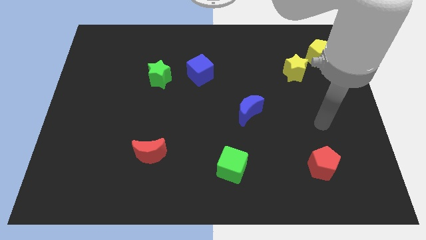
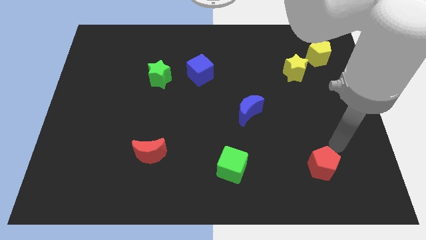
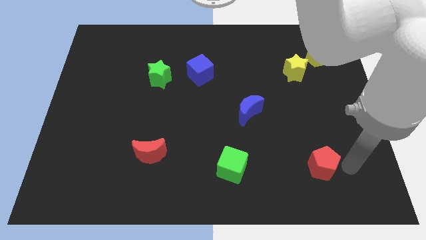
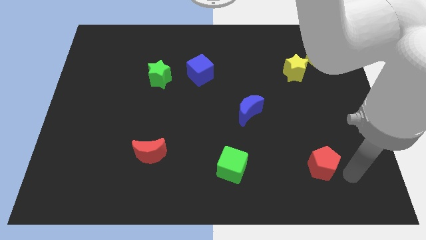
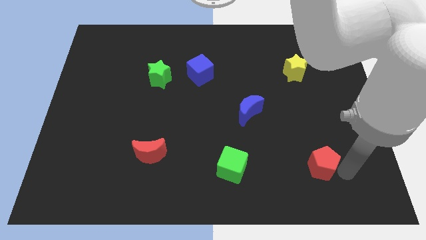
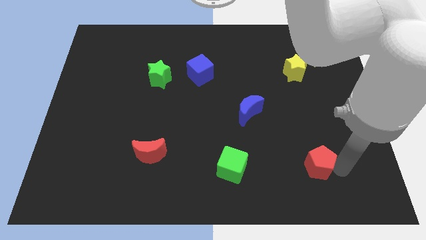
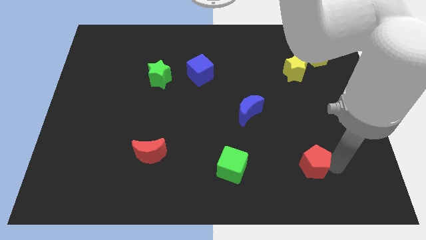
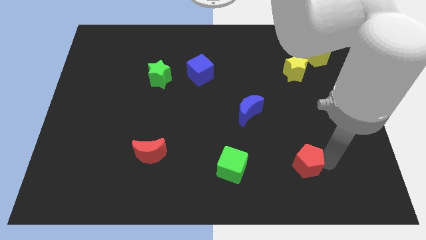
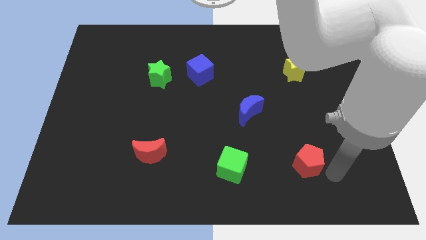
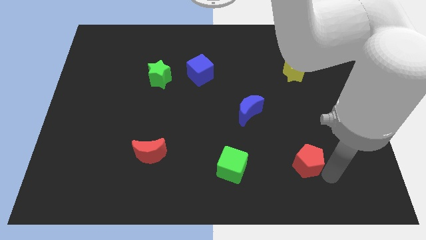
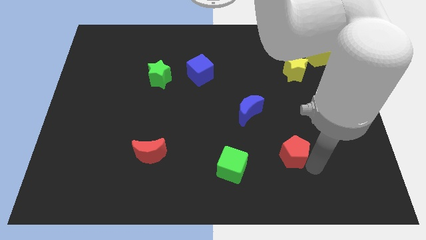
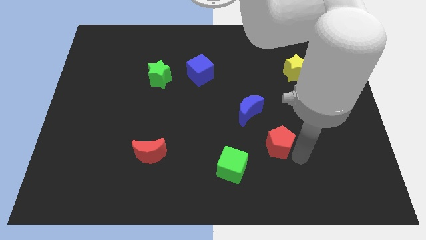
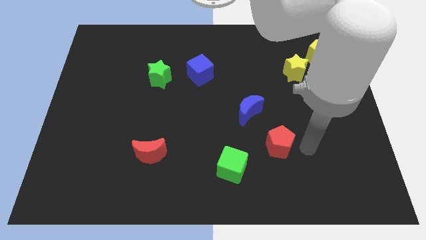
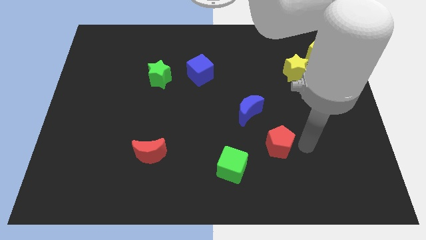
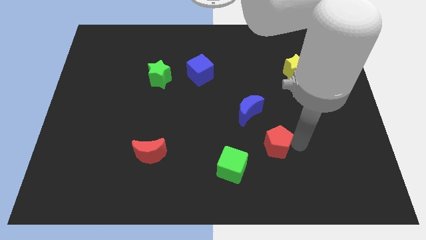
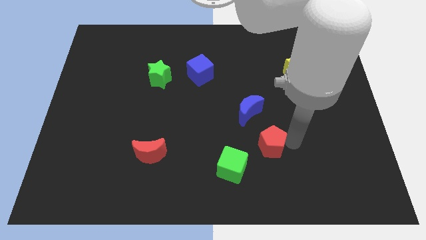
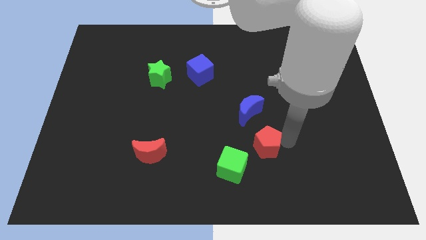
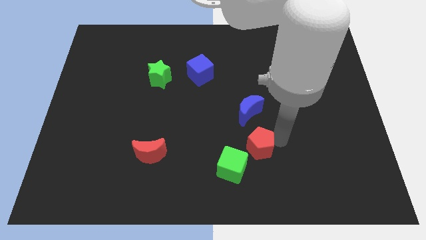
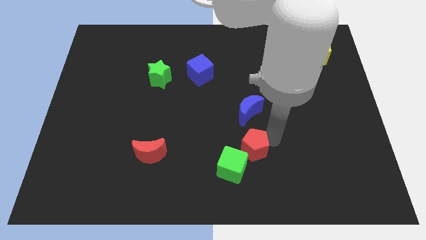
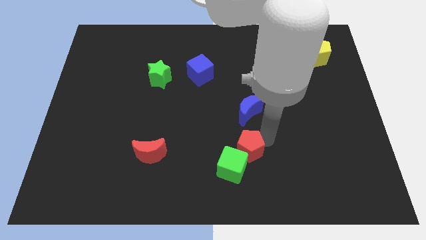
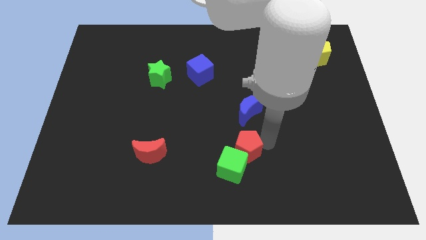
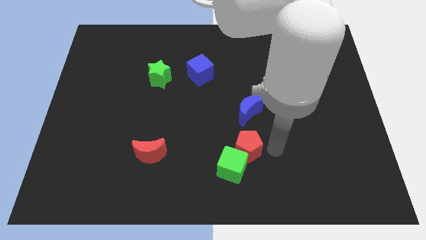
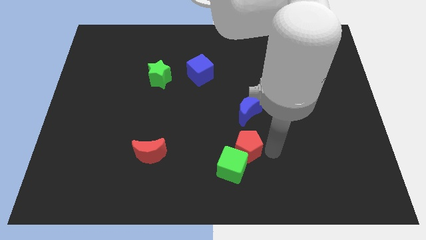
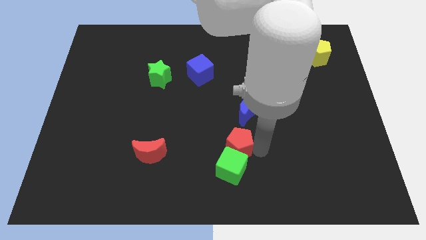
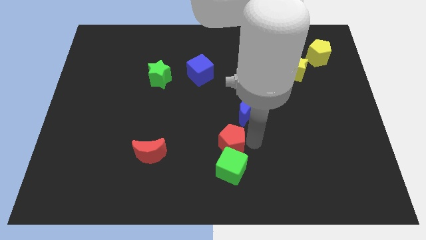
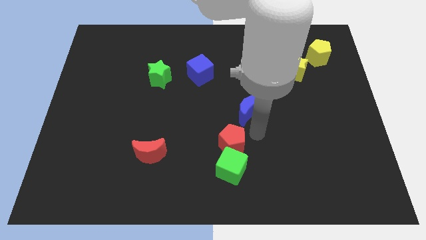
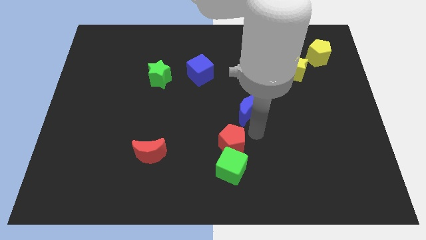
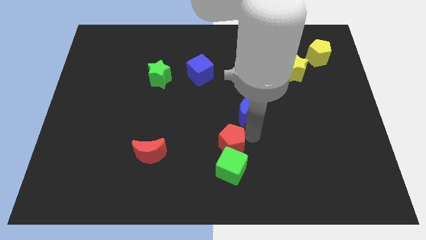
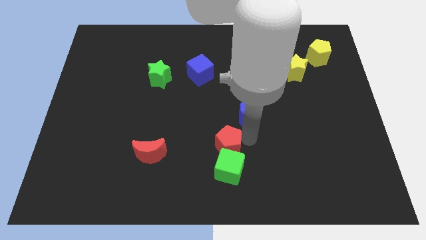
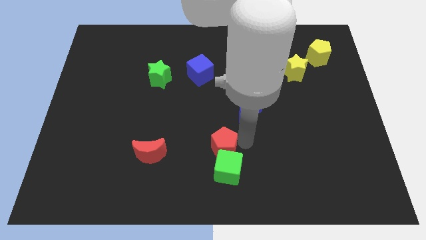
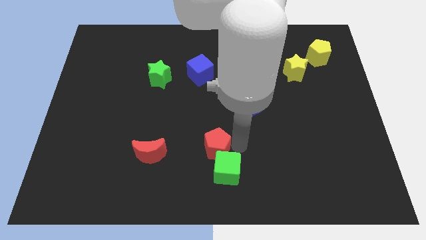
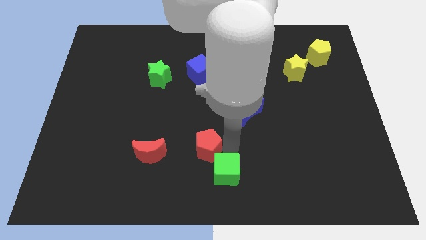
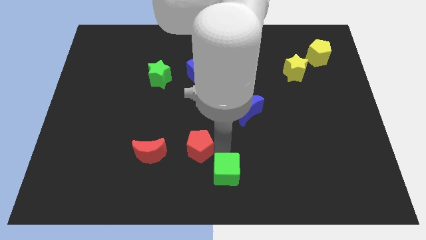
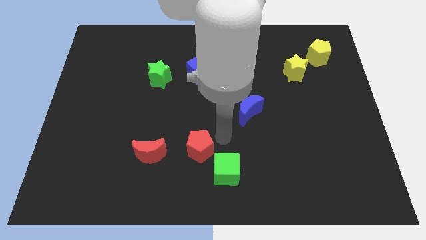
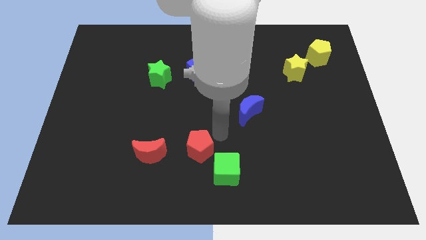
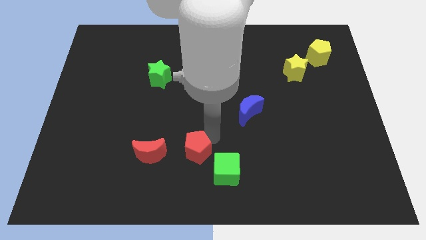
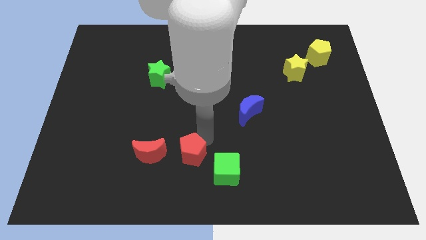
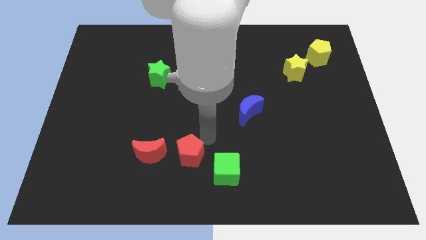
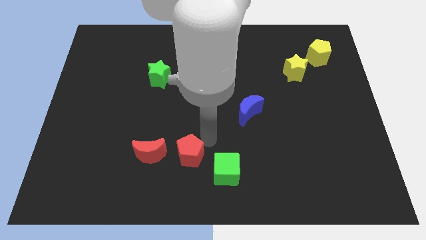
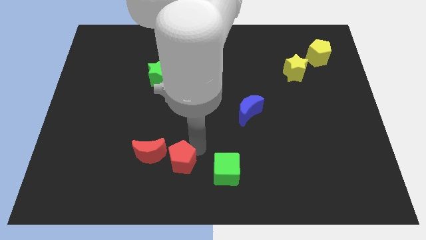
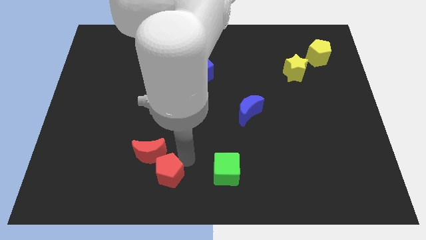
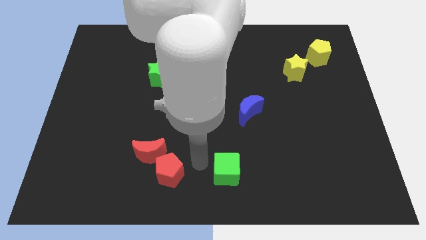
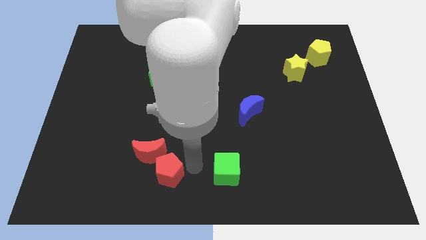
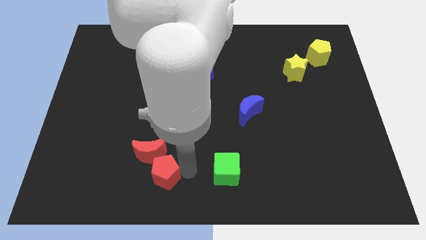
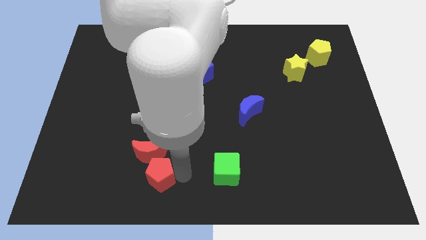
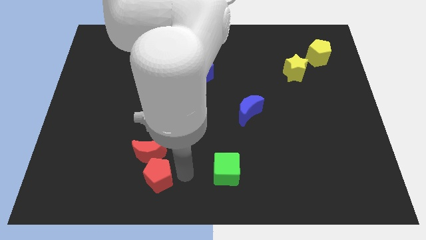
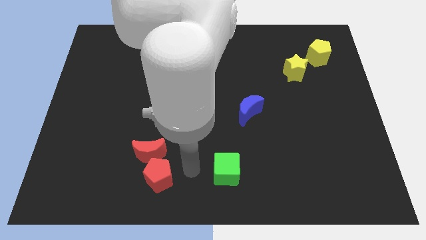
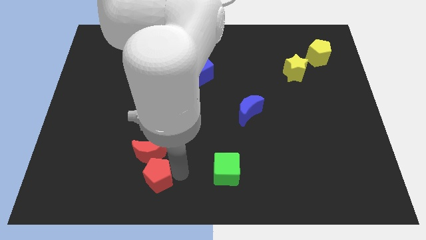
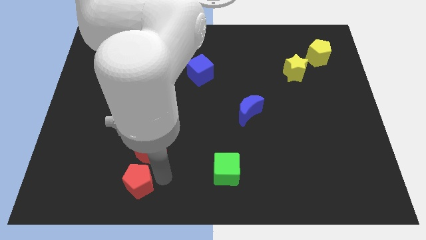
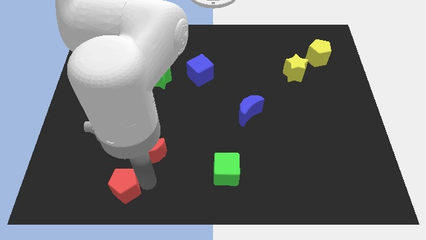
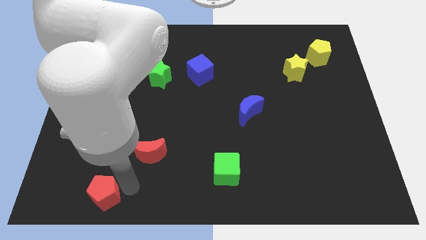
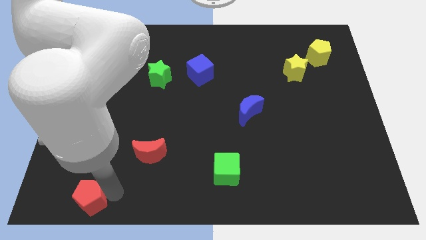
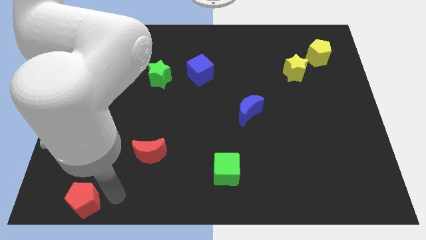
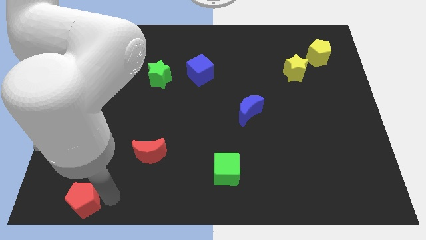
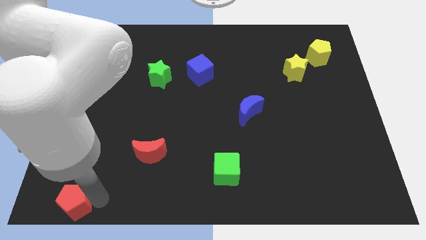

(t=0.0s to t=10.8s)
push the red pentagon to the bottom left corner
